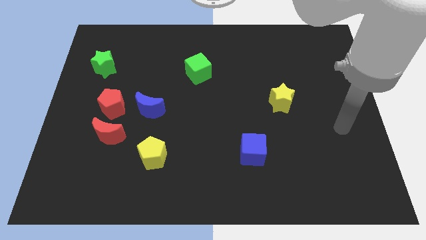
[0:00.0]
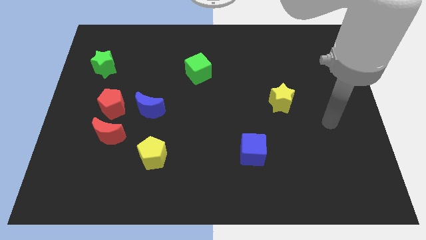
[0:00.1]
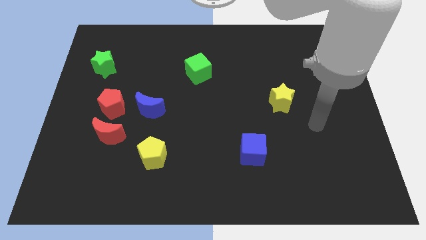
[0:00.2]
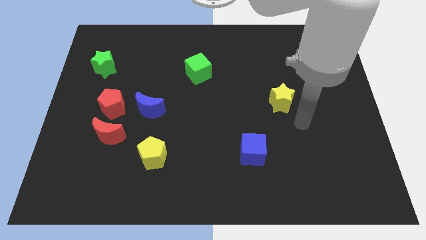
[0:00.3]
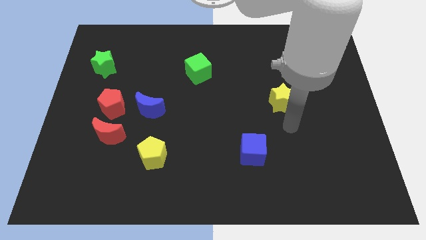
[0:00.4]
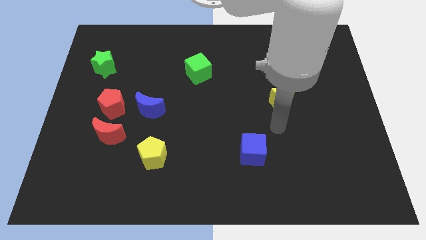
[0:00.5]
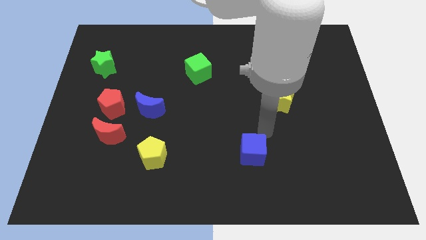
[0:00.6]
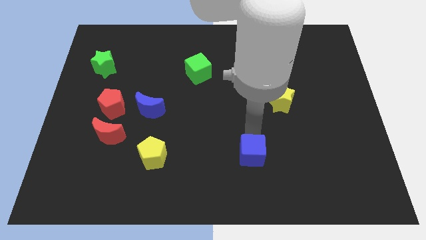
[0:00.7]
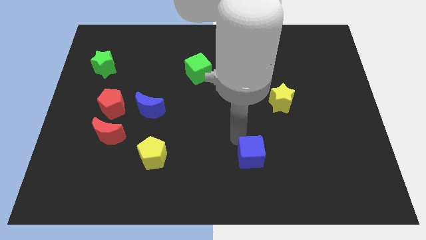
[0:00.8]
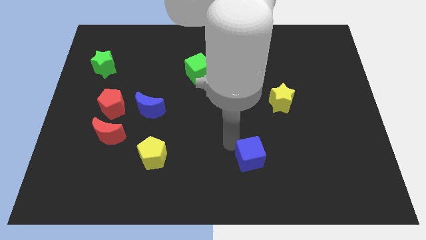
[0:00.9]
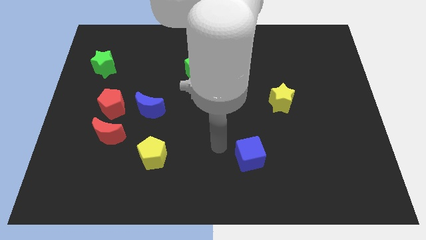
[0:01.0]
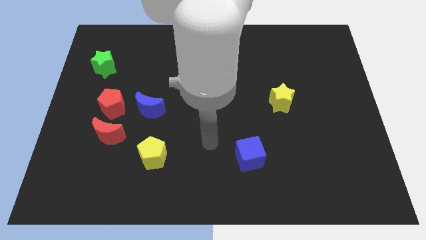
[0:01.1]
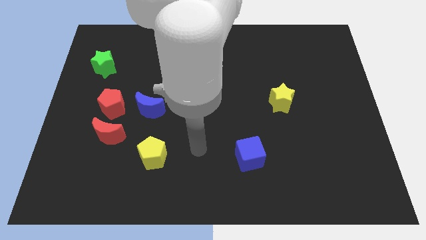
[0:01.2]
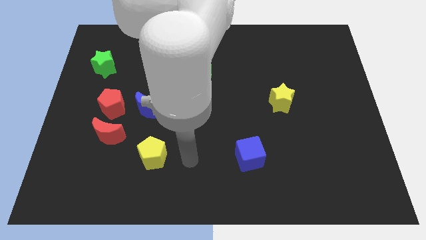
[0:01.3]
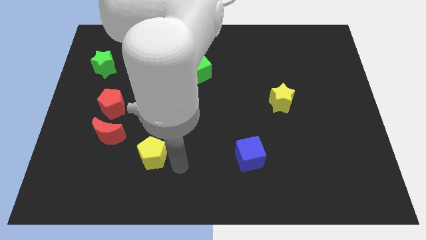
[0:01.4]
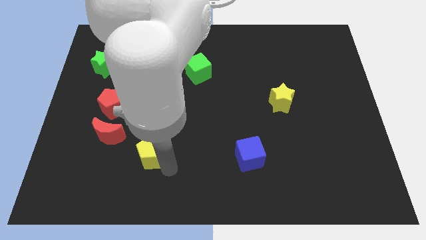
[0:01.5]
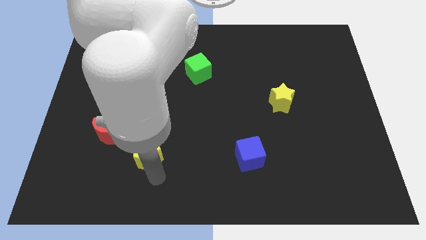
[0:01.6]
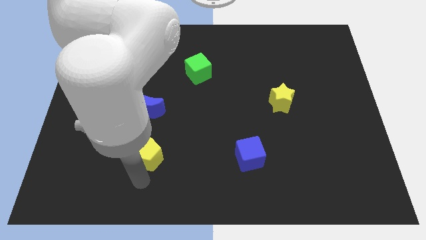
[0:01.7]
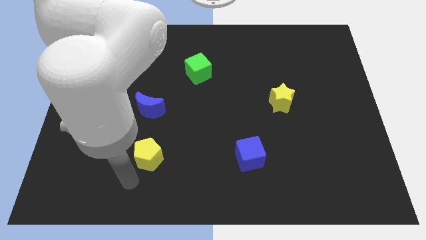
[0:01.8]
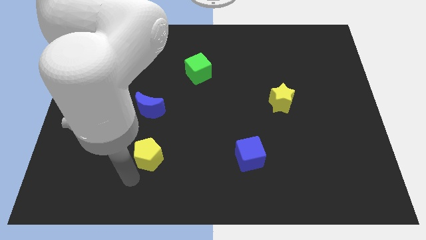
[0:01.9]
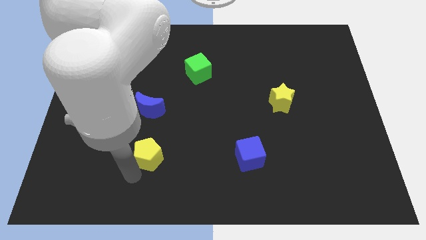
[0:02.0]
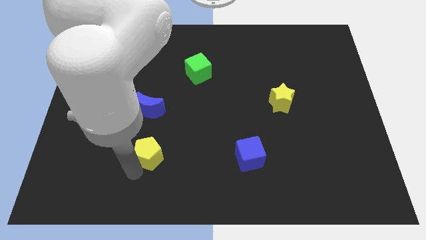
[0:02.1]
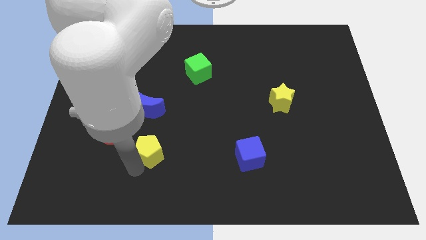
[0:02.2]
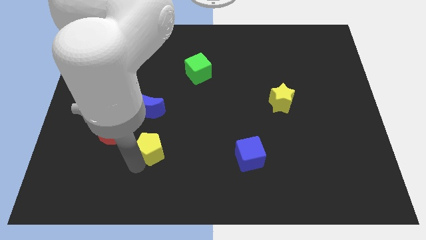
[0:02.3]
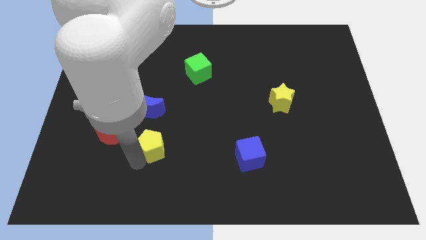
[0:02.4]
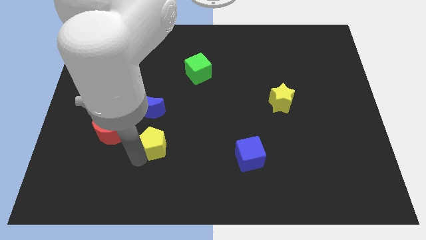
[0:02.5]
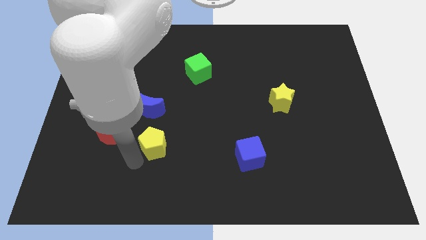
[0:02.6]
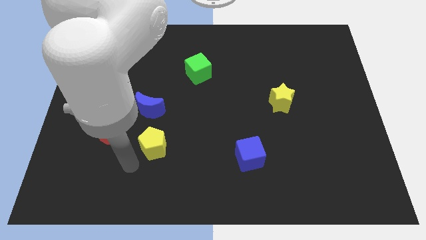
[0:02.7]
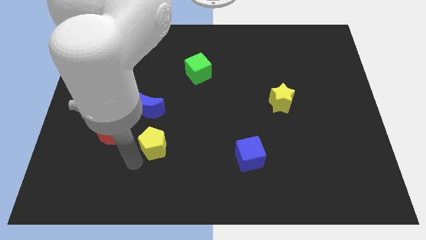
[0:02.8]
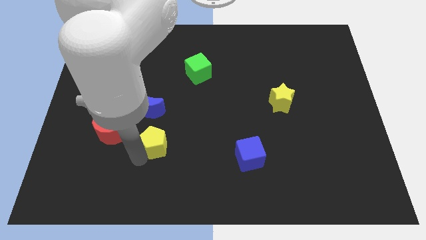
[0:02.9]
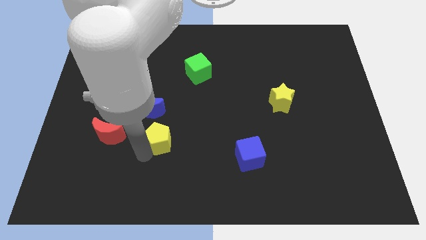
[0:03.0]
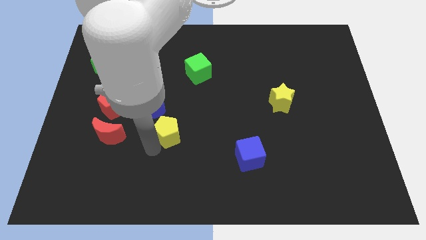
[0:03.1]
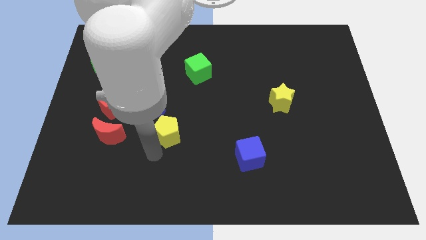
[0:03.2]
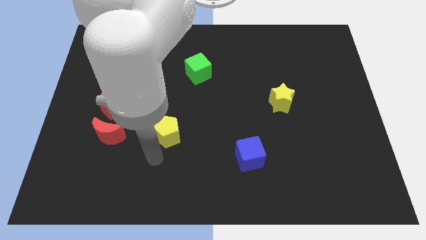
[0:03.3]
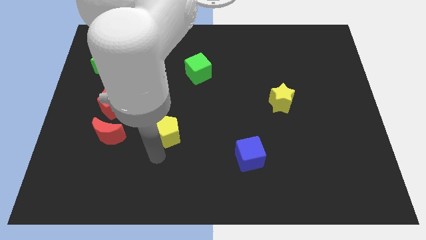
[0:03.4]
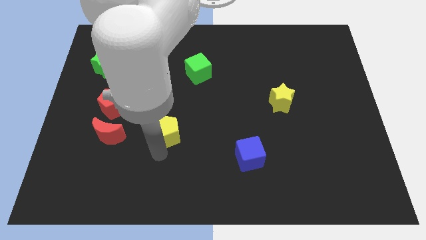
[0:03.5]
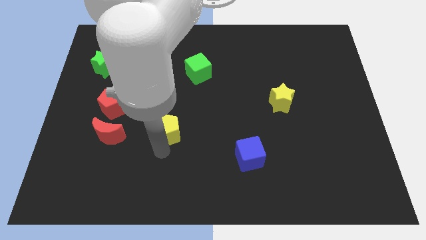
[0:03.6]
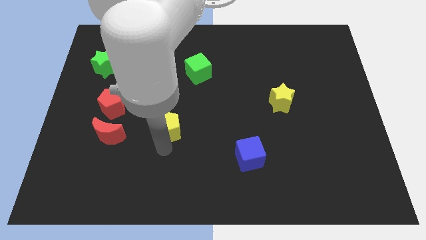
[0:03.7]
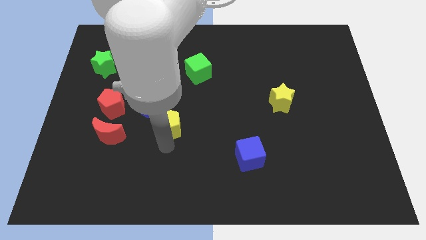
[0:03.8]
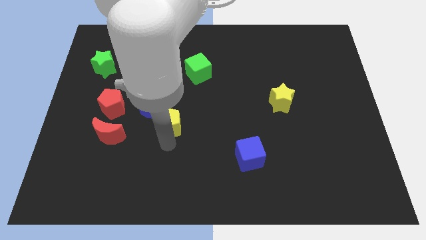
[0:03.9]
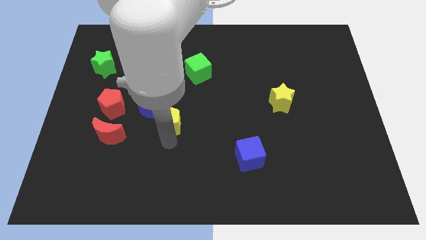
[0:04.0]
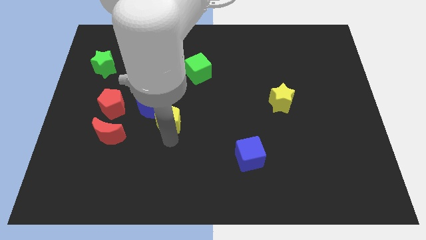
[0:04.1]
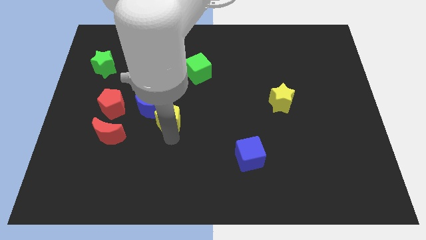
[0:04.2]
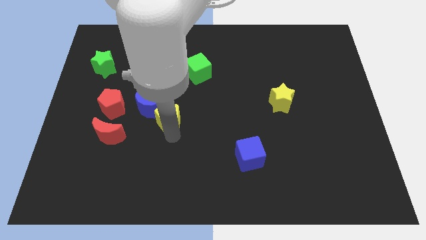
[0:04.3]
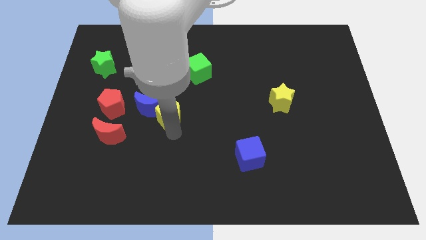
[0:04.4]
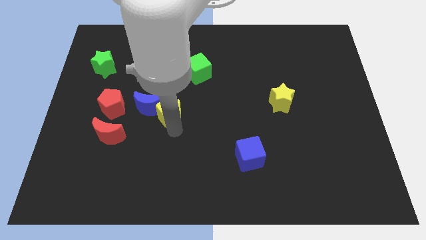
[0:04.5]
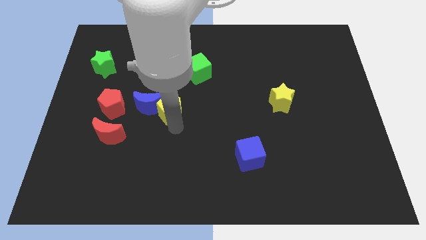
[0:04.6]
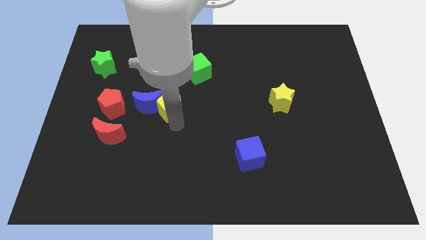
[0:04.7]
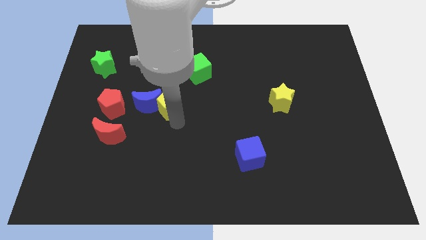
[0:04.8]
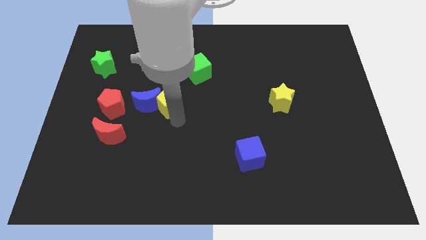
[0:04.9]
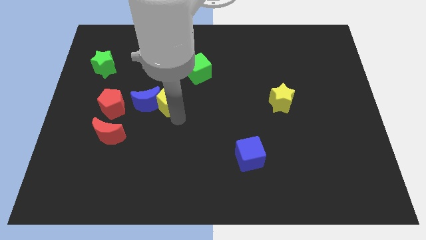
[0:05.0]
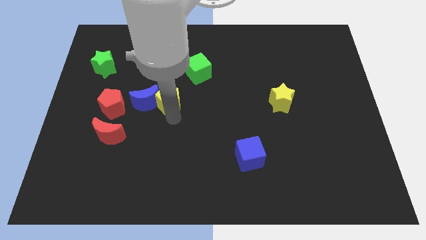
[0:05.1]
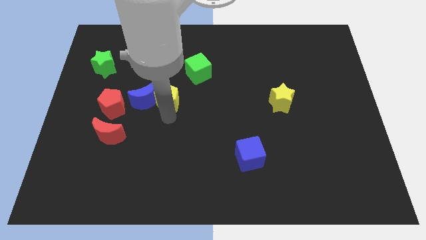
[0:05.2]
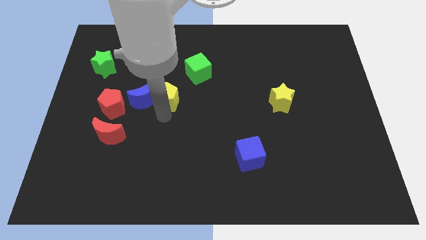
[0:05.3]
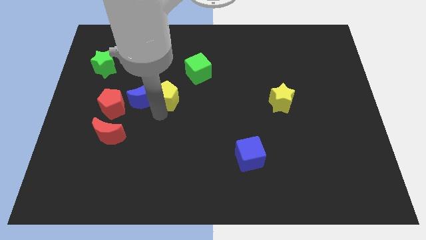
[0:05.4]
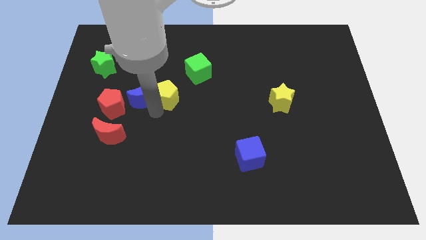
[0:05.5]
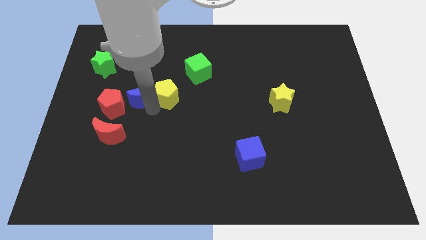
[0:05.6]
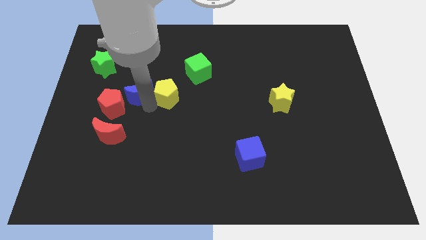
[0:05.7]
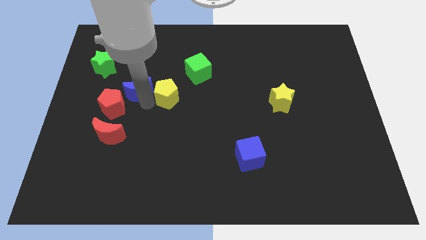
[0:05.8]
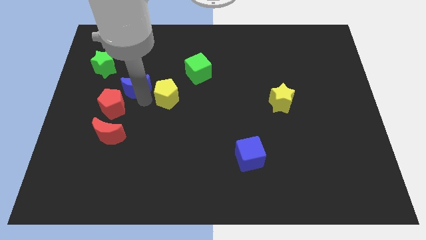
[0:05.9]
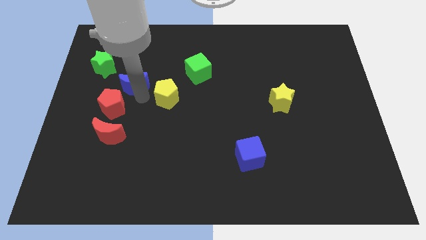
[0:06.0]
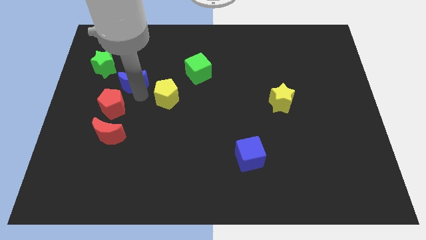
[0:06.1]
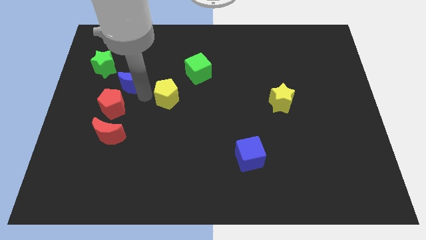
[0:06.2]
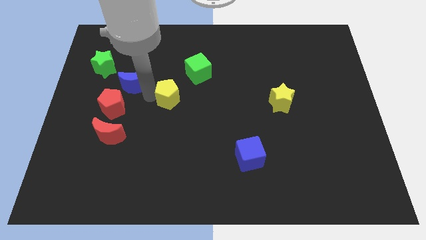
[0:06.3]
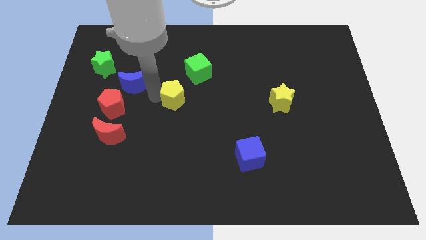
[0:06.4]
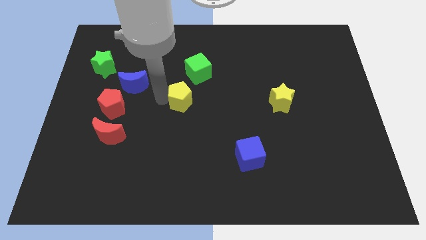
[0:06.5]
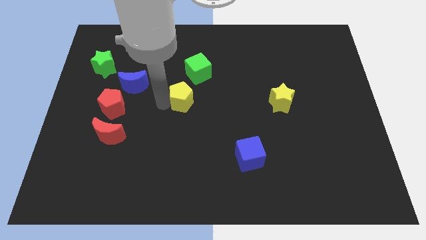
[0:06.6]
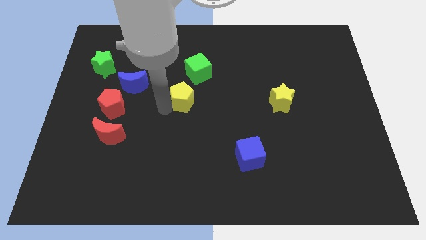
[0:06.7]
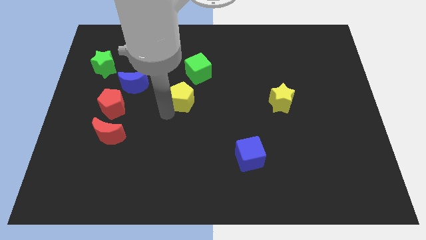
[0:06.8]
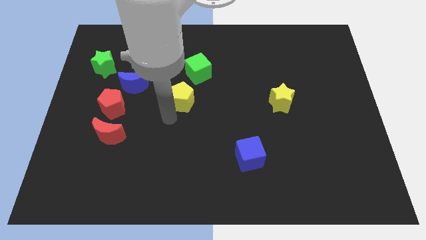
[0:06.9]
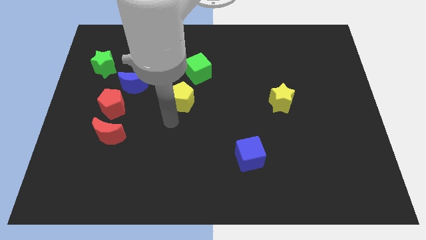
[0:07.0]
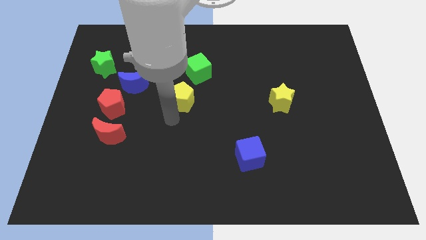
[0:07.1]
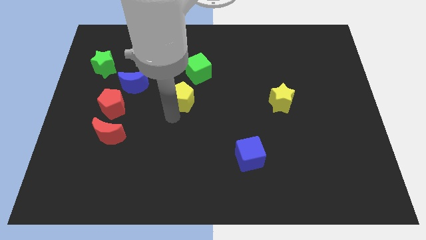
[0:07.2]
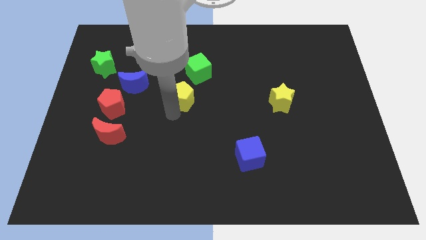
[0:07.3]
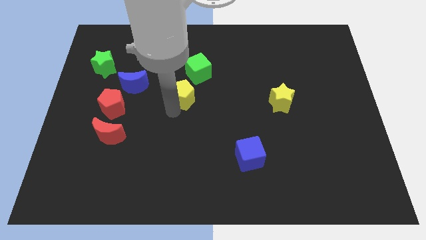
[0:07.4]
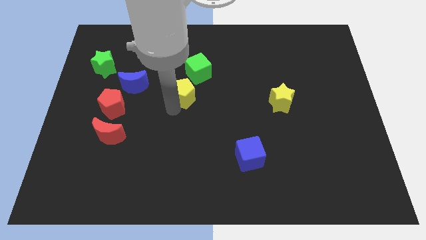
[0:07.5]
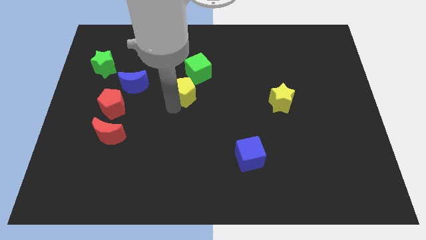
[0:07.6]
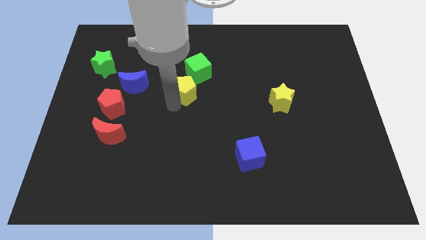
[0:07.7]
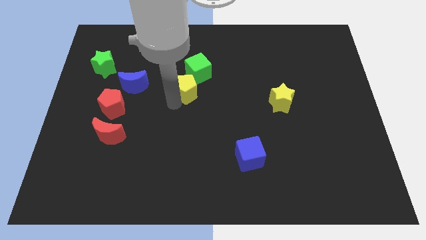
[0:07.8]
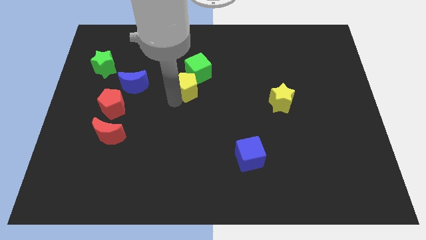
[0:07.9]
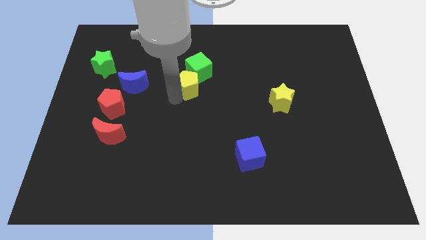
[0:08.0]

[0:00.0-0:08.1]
put the yellow pentagon towards the green cube
